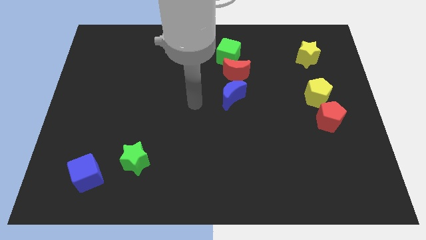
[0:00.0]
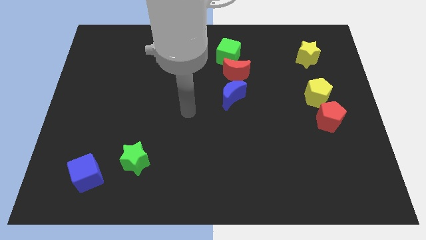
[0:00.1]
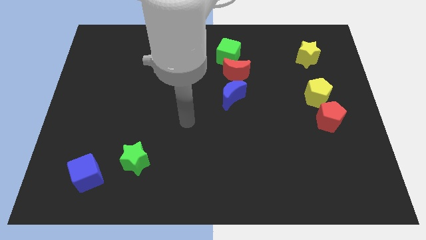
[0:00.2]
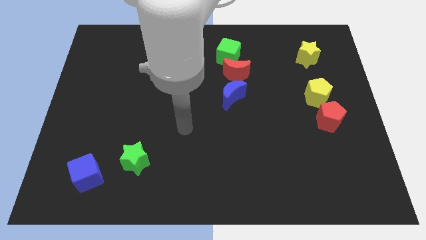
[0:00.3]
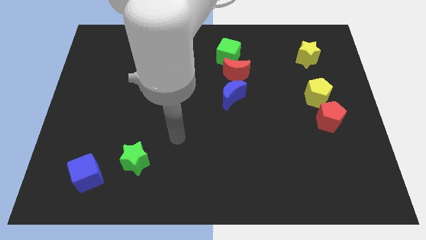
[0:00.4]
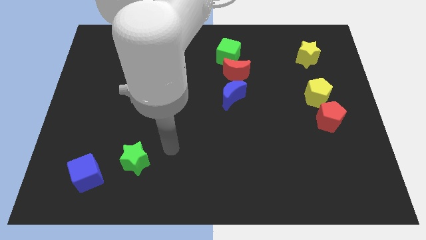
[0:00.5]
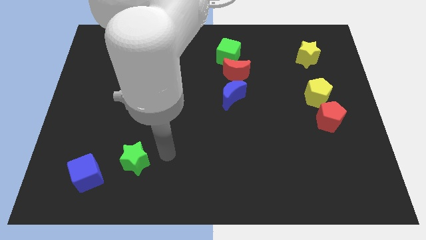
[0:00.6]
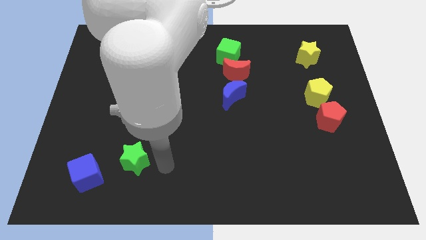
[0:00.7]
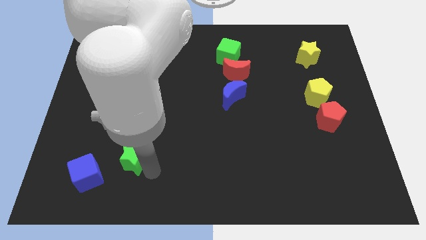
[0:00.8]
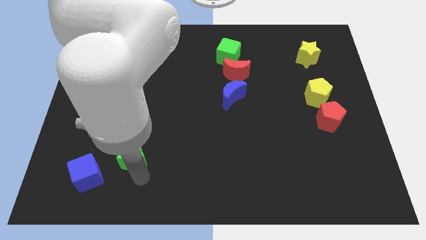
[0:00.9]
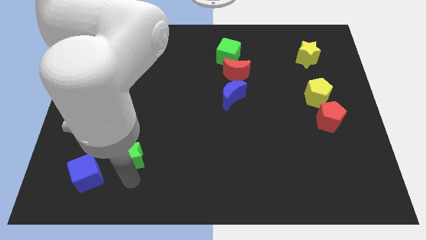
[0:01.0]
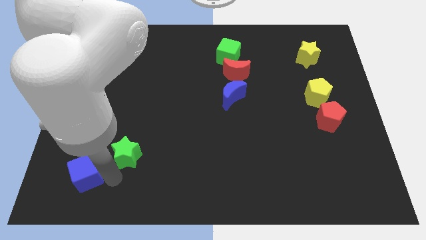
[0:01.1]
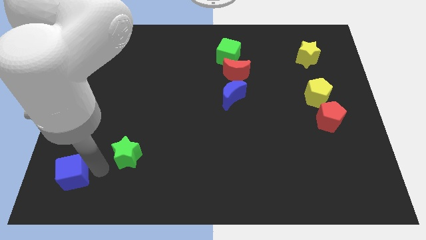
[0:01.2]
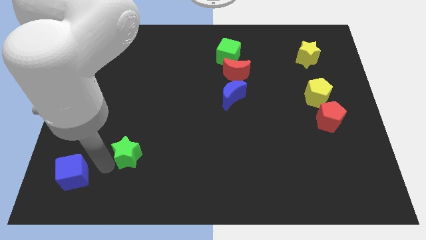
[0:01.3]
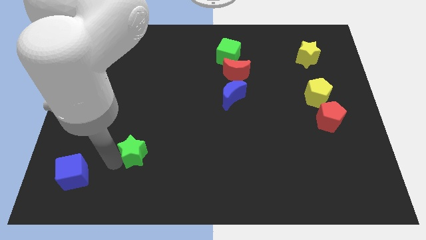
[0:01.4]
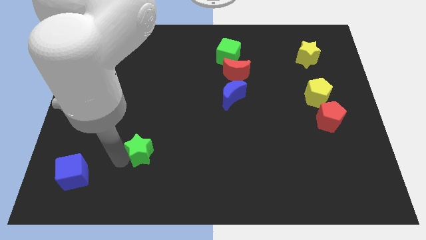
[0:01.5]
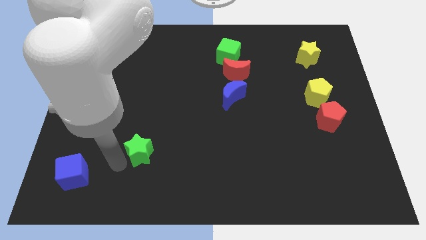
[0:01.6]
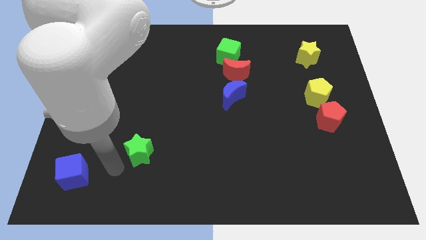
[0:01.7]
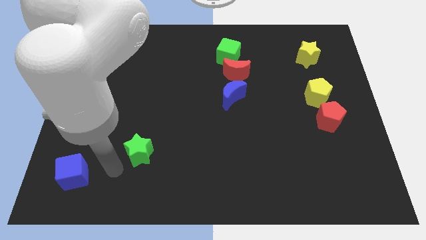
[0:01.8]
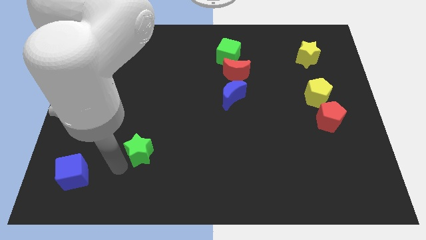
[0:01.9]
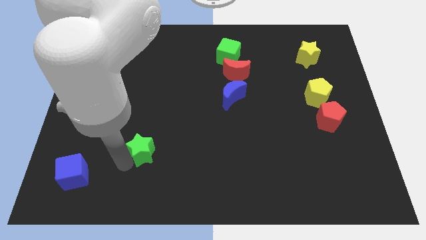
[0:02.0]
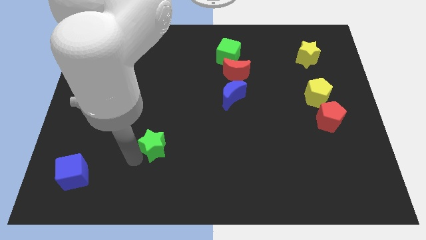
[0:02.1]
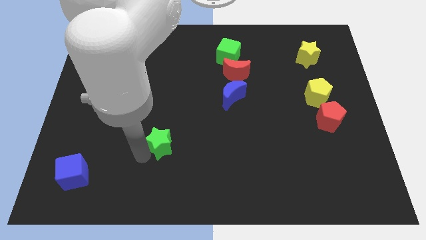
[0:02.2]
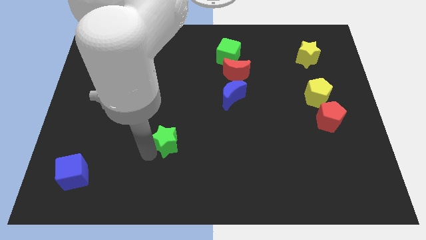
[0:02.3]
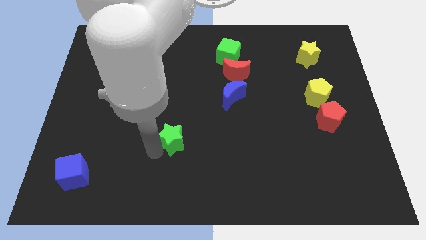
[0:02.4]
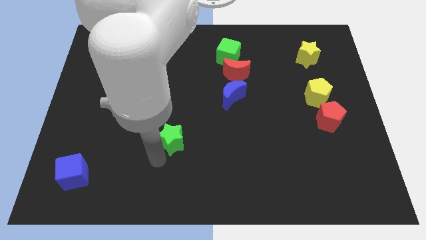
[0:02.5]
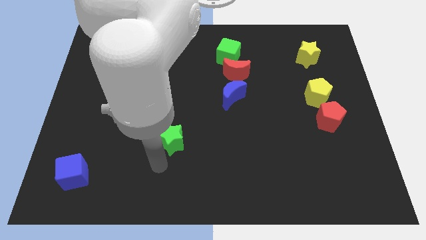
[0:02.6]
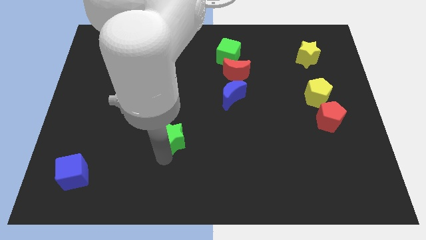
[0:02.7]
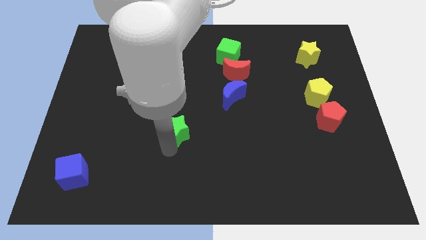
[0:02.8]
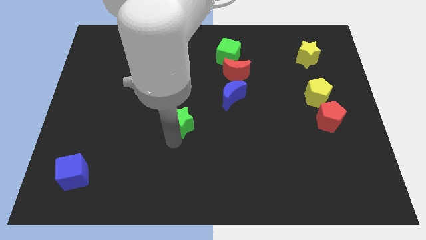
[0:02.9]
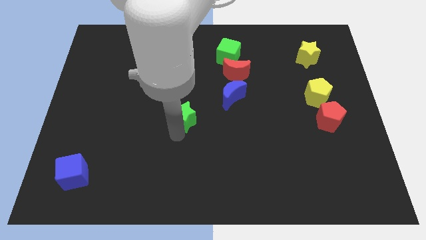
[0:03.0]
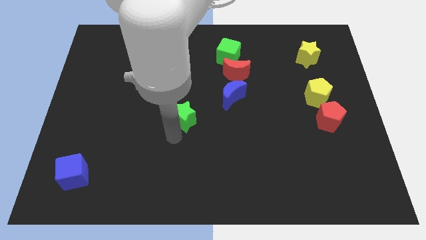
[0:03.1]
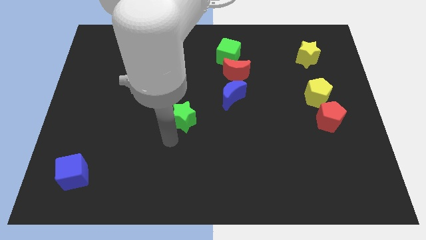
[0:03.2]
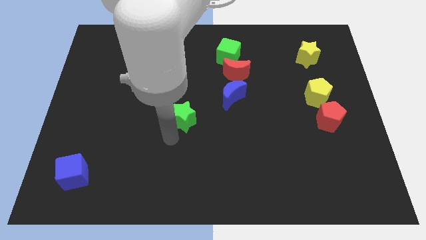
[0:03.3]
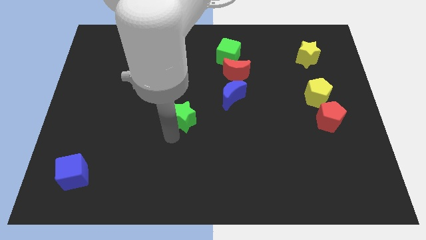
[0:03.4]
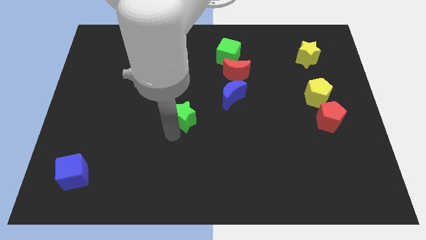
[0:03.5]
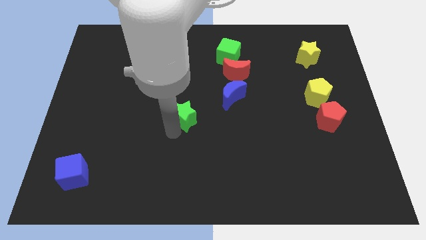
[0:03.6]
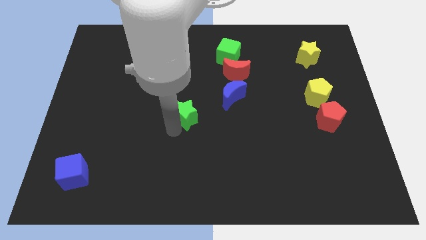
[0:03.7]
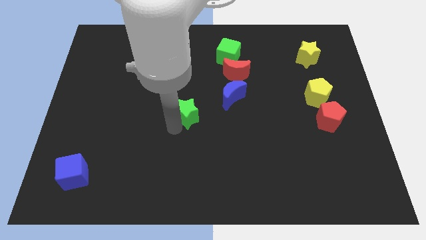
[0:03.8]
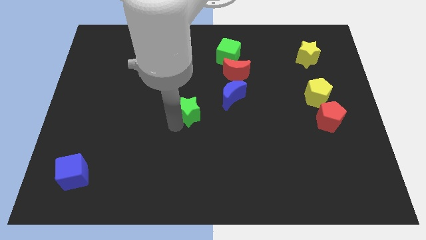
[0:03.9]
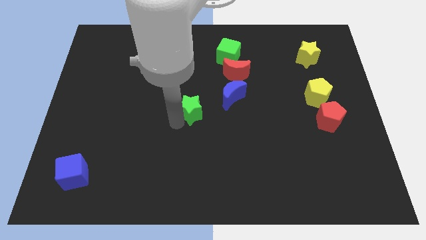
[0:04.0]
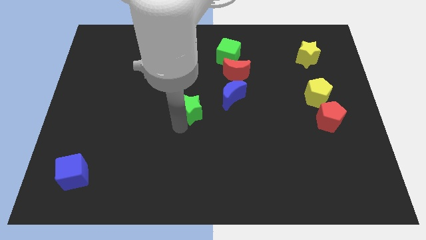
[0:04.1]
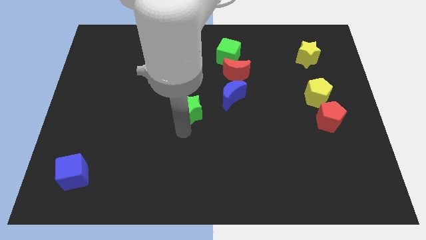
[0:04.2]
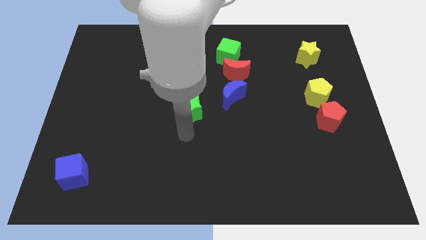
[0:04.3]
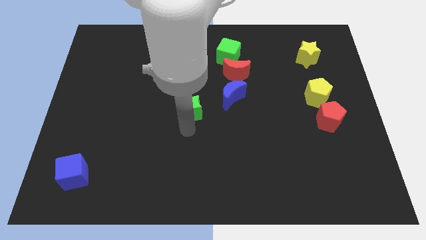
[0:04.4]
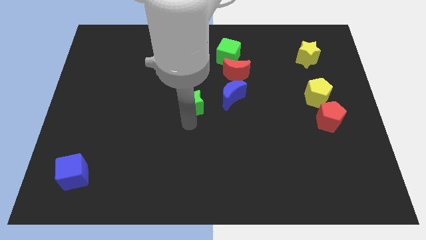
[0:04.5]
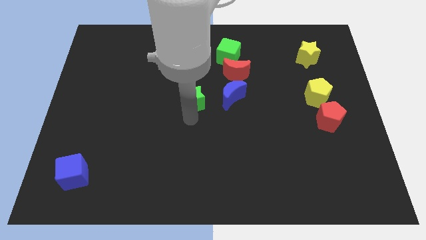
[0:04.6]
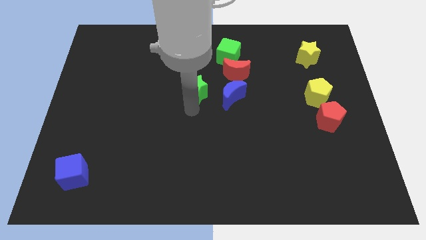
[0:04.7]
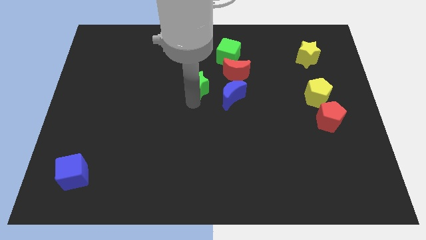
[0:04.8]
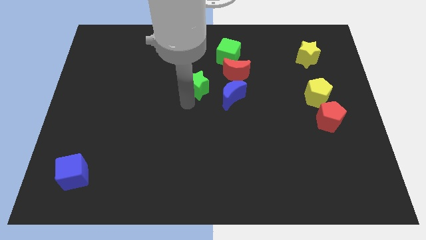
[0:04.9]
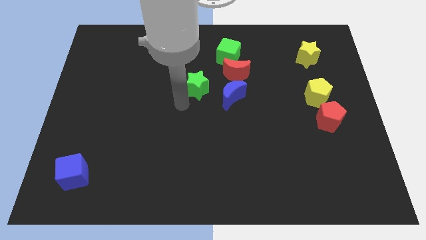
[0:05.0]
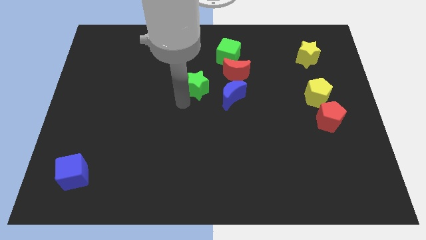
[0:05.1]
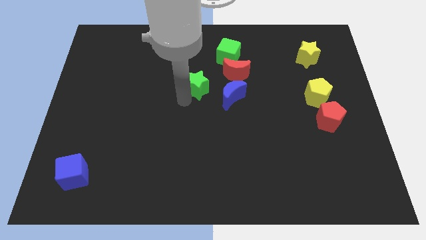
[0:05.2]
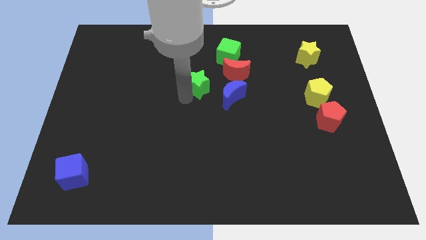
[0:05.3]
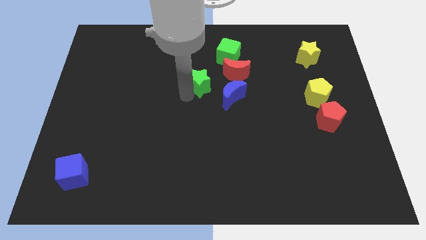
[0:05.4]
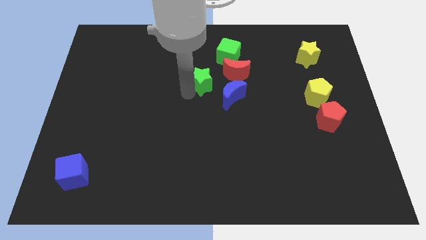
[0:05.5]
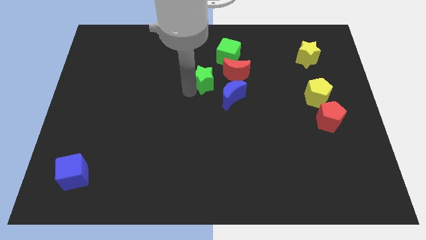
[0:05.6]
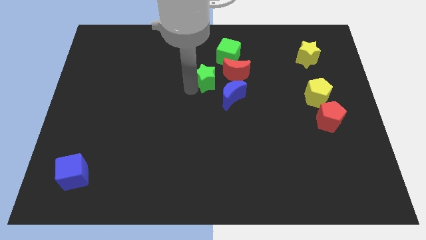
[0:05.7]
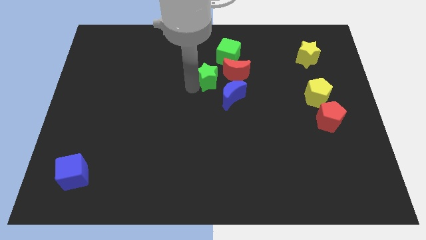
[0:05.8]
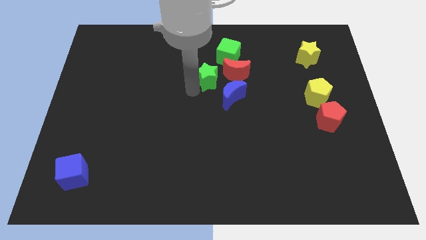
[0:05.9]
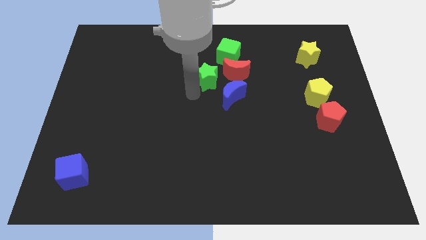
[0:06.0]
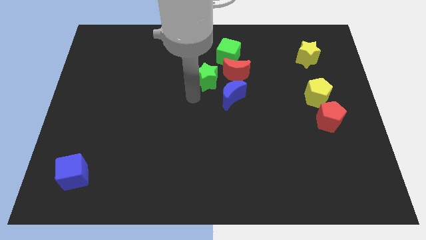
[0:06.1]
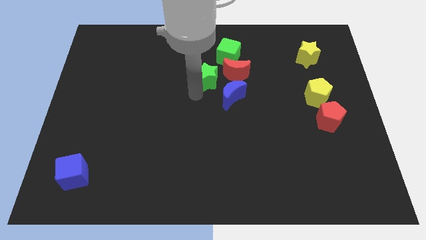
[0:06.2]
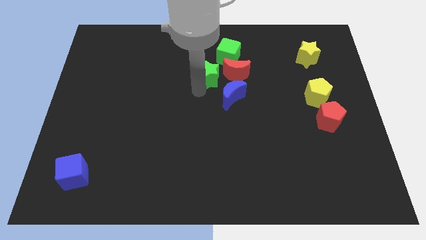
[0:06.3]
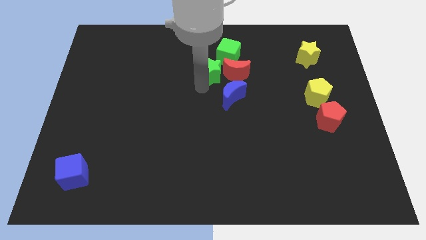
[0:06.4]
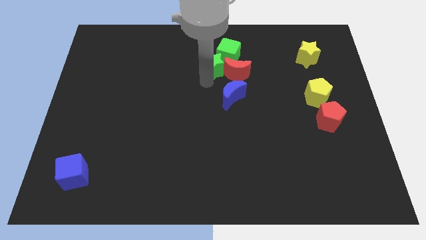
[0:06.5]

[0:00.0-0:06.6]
put the green star towards the green cube

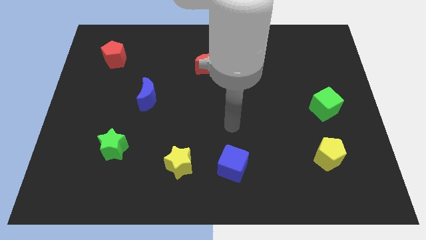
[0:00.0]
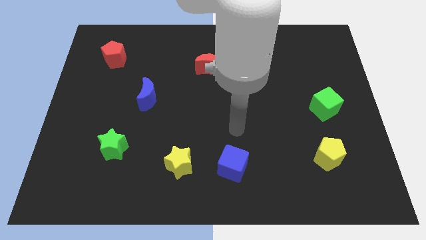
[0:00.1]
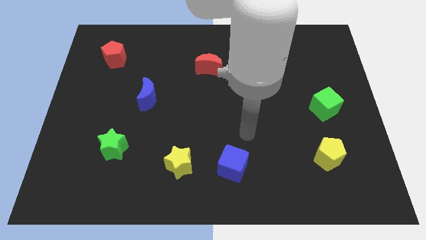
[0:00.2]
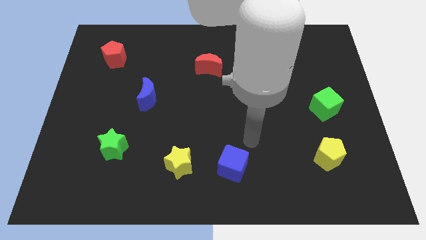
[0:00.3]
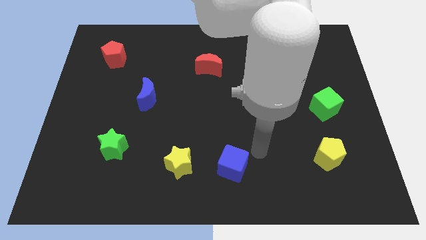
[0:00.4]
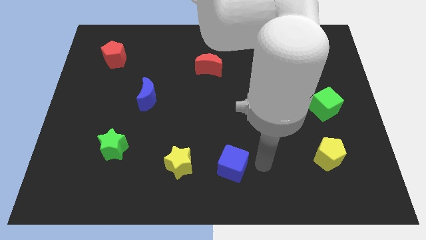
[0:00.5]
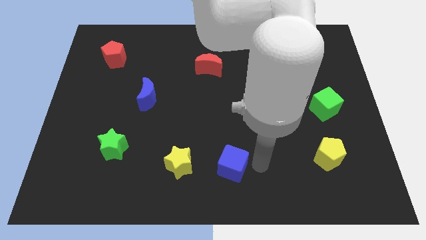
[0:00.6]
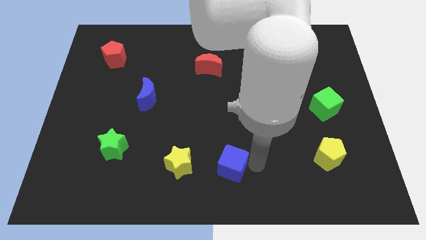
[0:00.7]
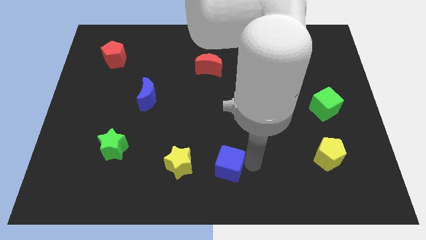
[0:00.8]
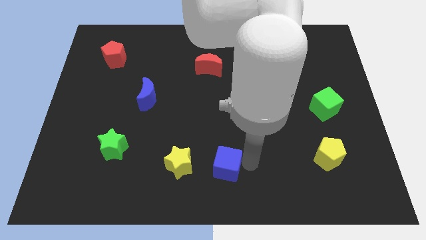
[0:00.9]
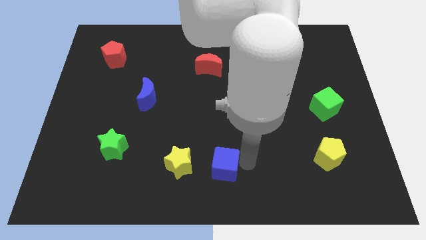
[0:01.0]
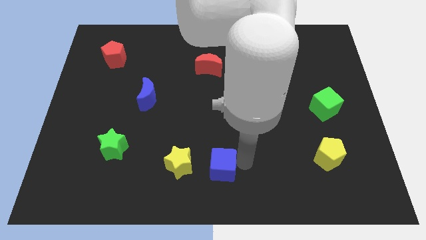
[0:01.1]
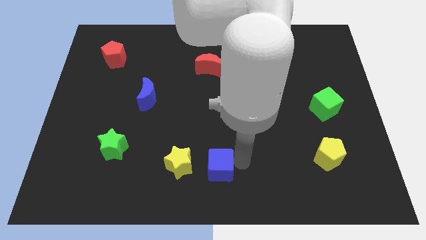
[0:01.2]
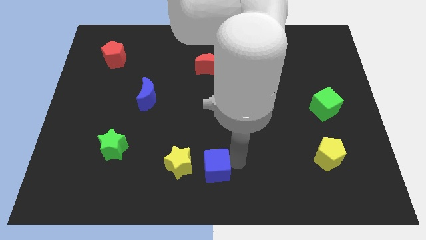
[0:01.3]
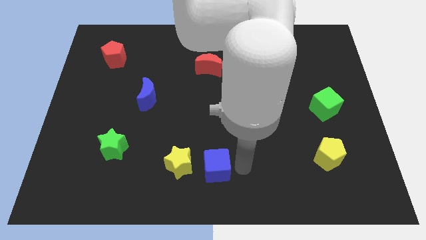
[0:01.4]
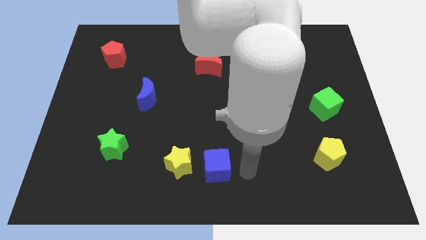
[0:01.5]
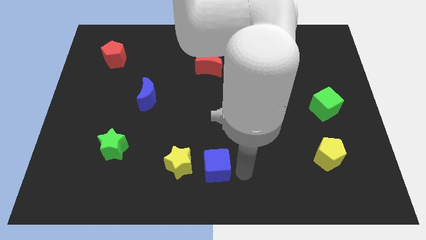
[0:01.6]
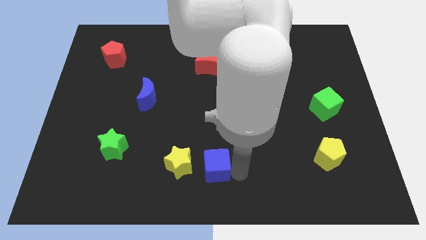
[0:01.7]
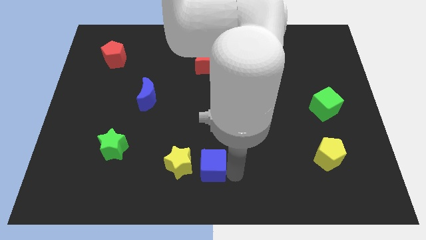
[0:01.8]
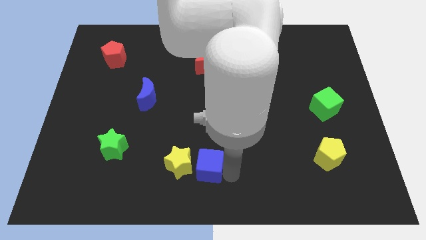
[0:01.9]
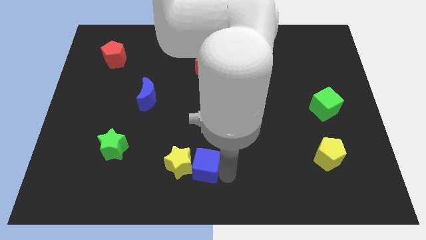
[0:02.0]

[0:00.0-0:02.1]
slide the blue cube close to the yellow star
